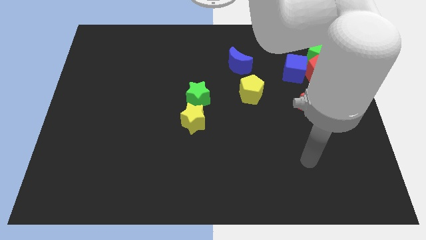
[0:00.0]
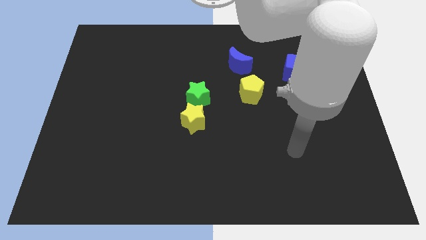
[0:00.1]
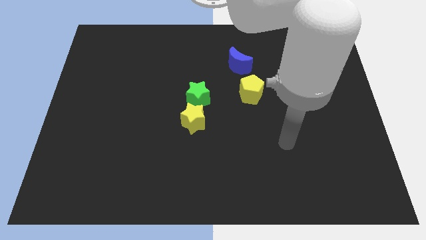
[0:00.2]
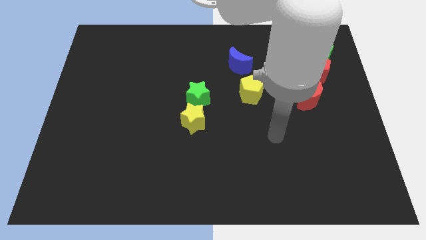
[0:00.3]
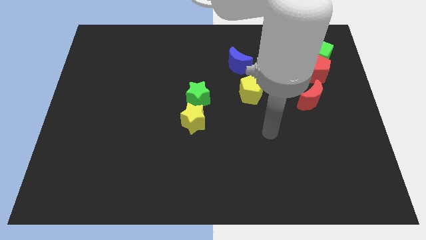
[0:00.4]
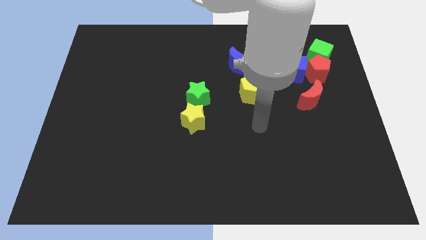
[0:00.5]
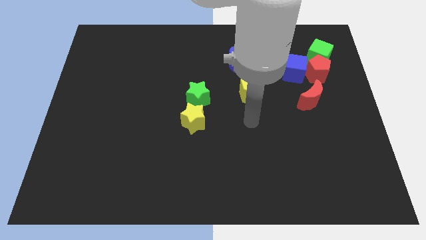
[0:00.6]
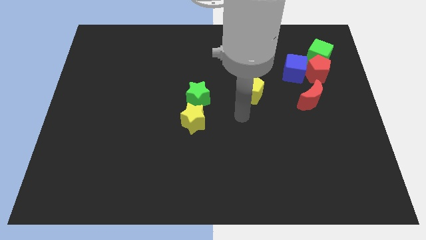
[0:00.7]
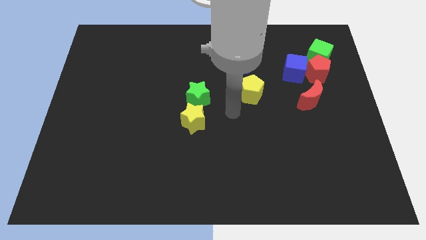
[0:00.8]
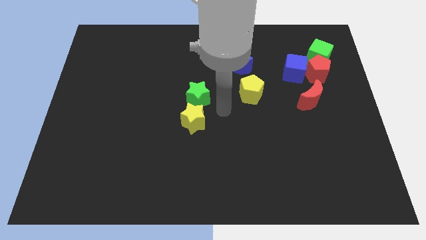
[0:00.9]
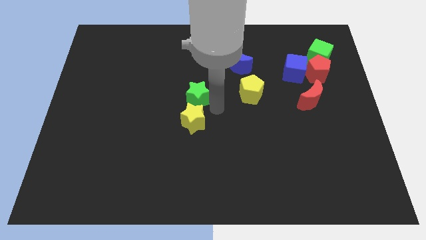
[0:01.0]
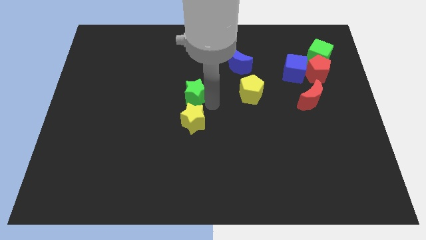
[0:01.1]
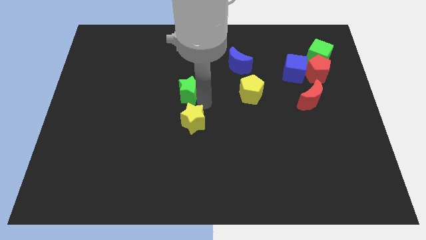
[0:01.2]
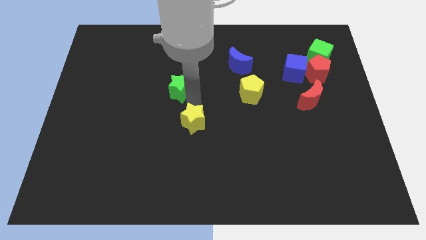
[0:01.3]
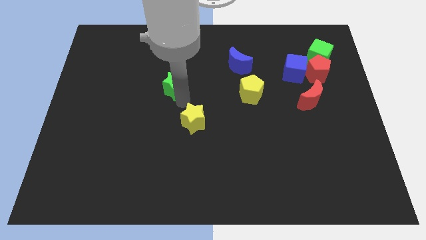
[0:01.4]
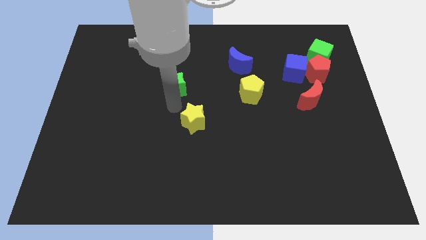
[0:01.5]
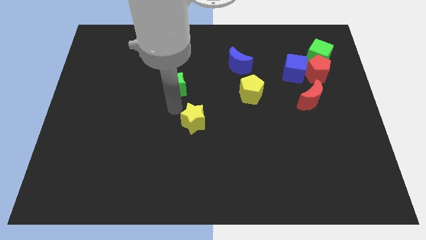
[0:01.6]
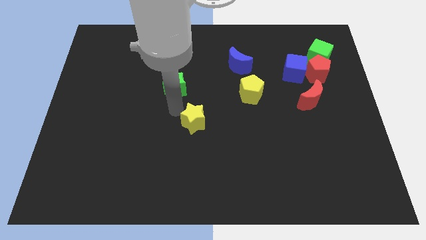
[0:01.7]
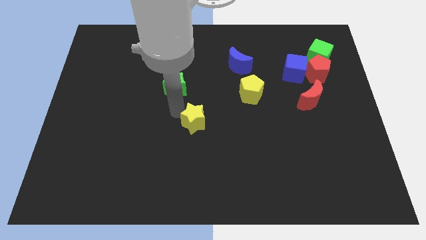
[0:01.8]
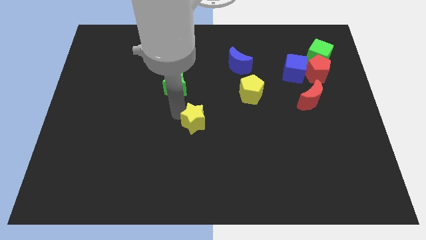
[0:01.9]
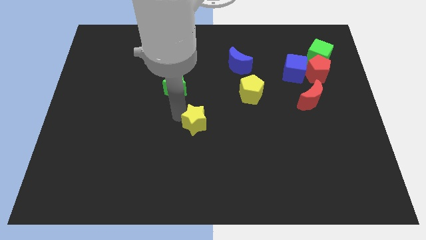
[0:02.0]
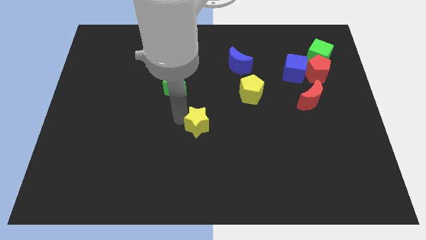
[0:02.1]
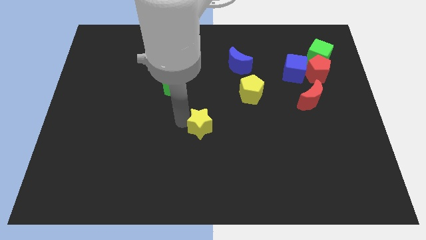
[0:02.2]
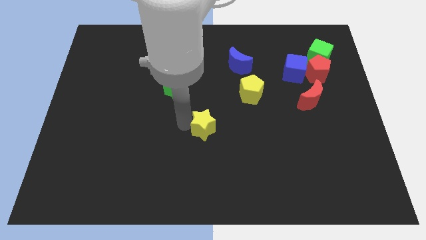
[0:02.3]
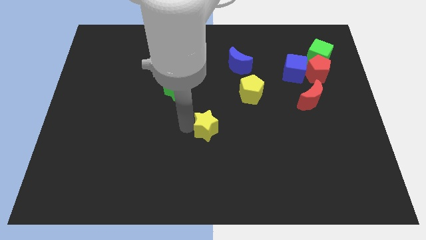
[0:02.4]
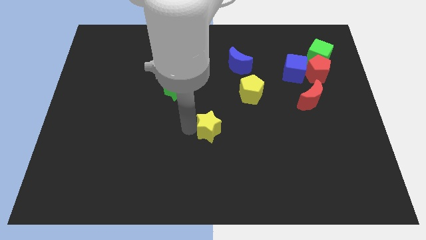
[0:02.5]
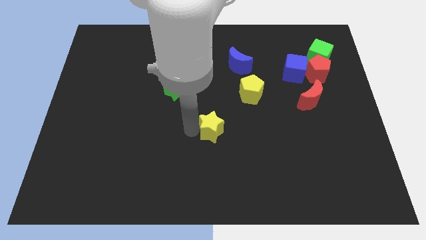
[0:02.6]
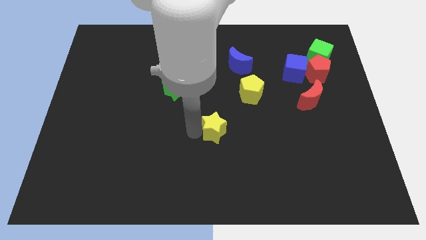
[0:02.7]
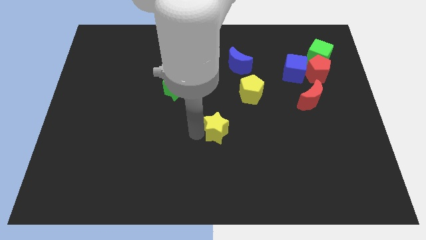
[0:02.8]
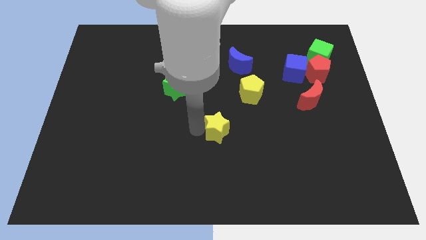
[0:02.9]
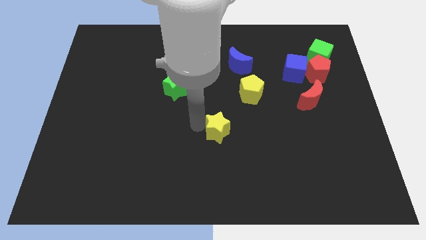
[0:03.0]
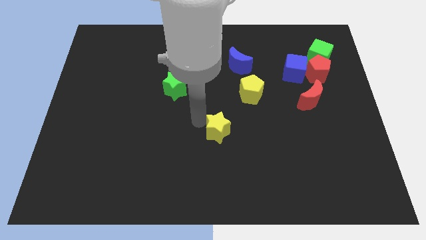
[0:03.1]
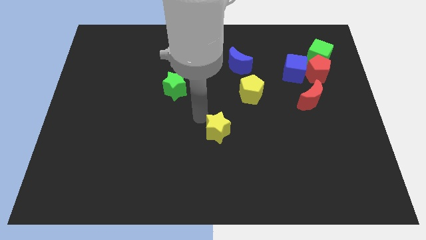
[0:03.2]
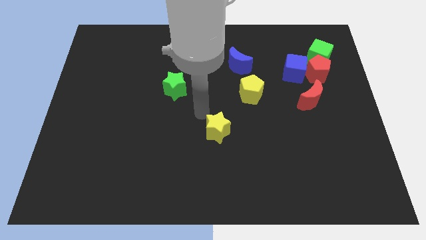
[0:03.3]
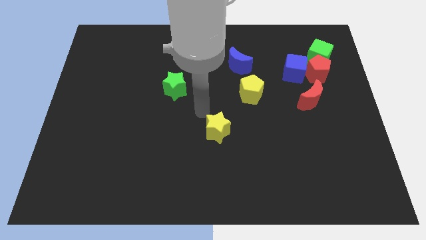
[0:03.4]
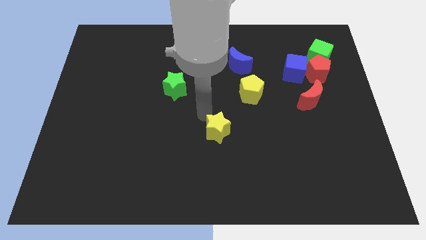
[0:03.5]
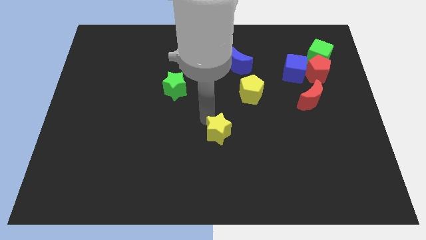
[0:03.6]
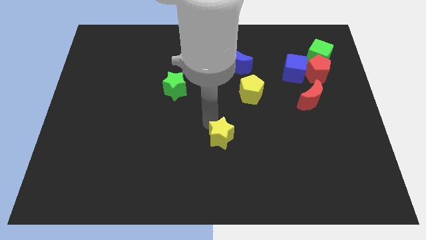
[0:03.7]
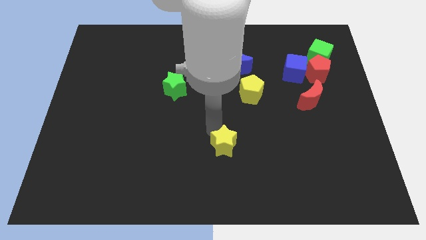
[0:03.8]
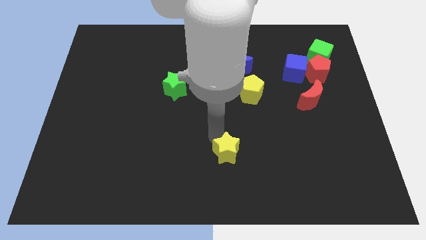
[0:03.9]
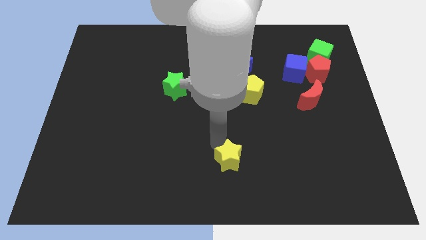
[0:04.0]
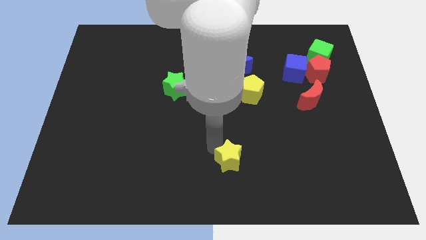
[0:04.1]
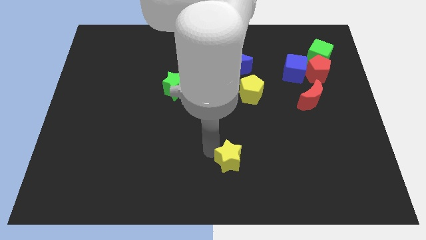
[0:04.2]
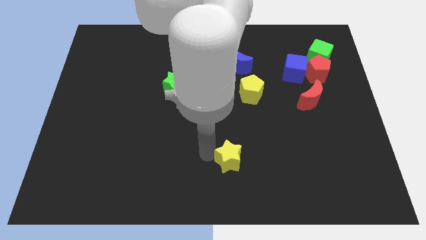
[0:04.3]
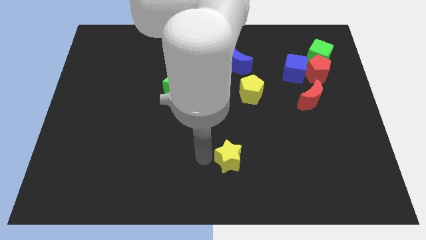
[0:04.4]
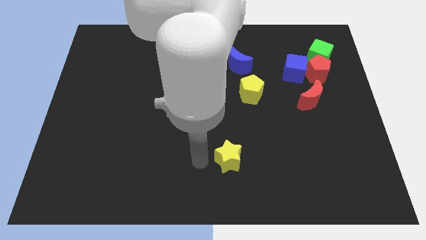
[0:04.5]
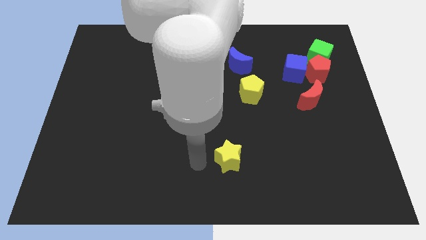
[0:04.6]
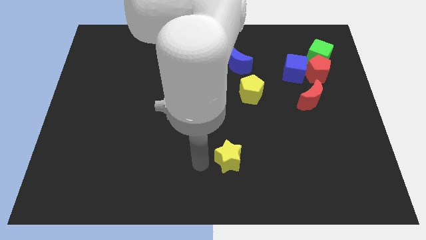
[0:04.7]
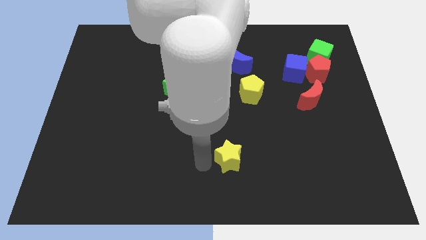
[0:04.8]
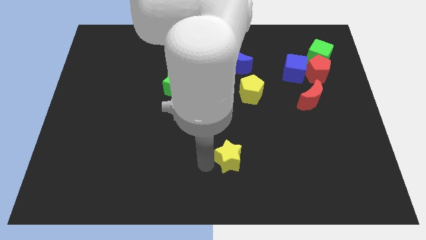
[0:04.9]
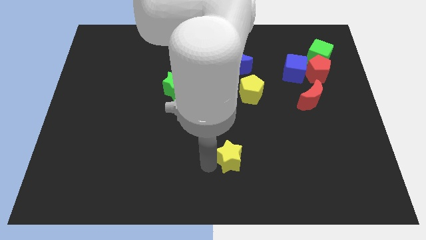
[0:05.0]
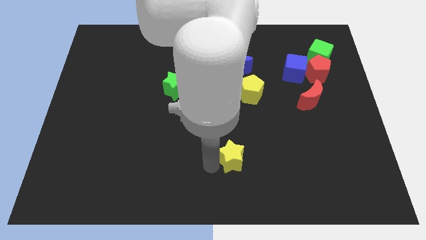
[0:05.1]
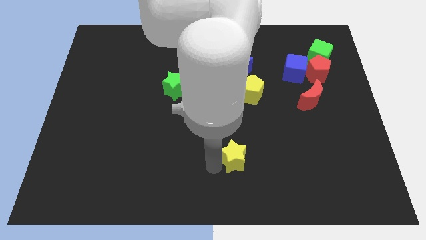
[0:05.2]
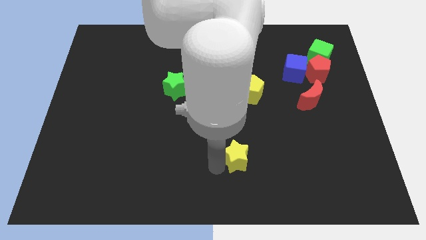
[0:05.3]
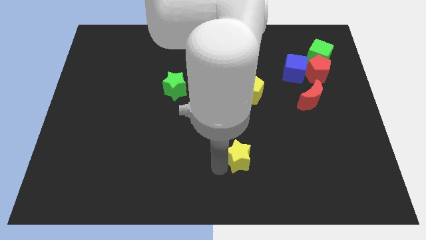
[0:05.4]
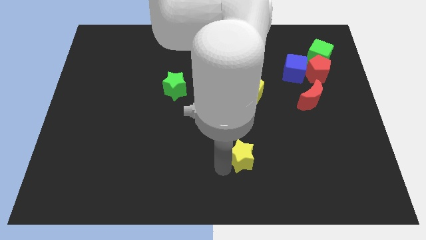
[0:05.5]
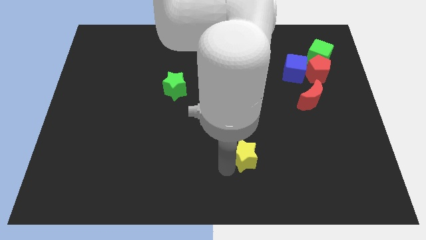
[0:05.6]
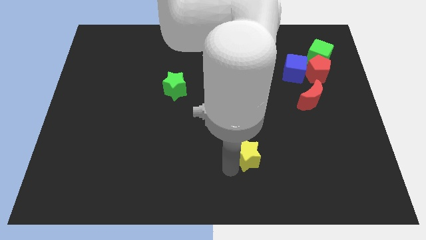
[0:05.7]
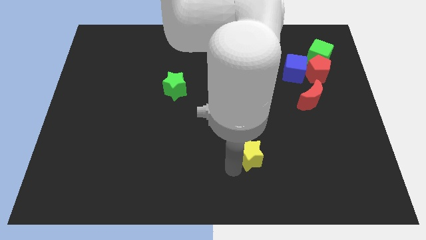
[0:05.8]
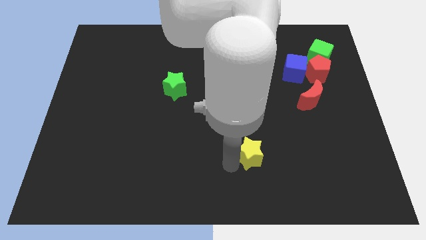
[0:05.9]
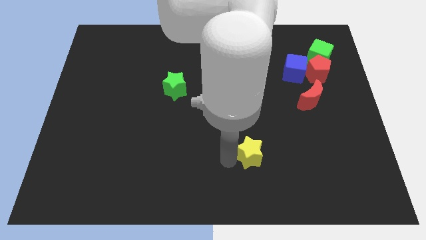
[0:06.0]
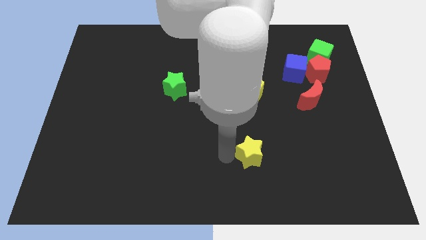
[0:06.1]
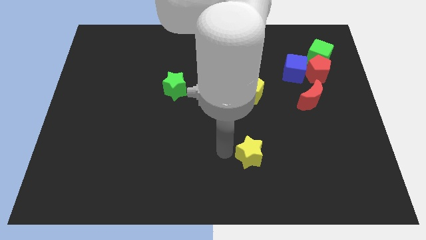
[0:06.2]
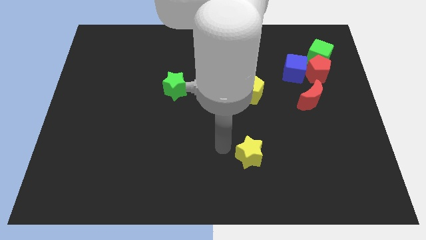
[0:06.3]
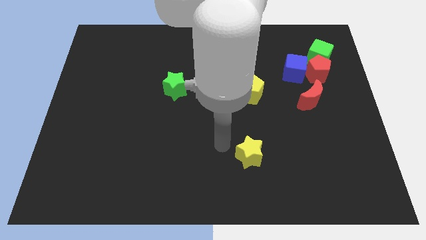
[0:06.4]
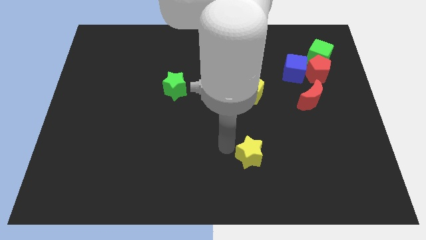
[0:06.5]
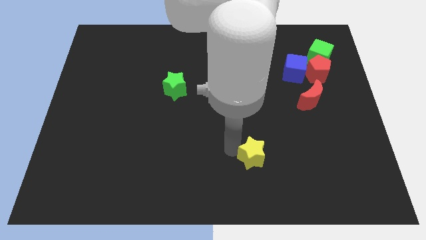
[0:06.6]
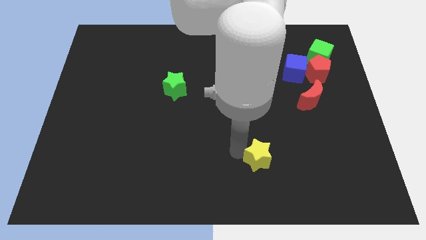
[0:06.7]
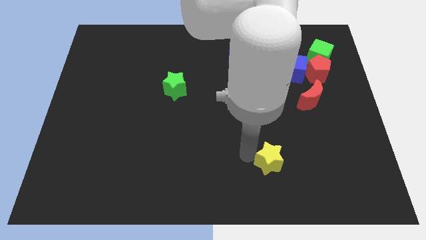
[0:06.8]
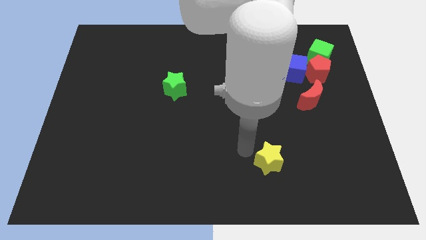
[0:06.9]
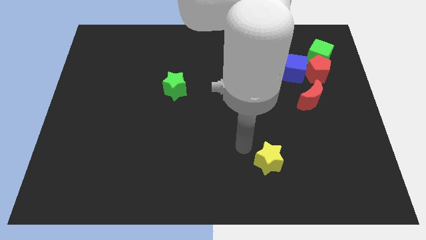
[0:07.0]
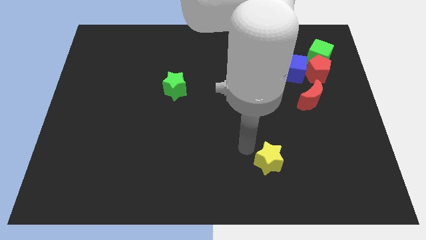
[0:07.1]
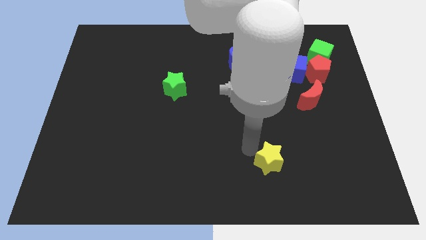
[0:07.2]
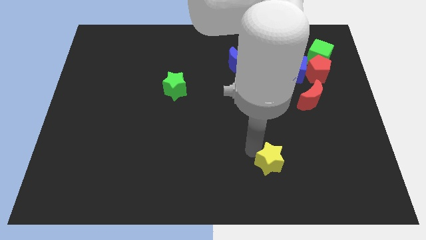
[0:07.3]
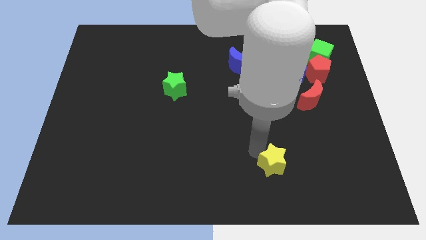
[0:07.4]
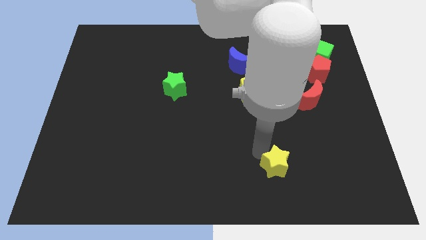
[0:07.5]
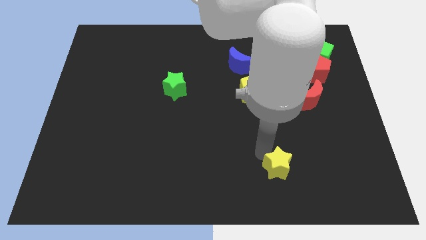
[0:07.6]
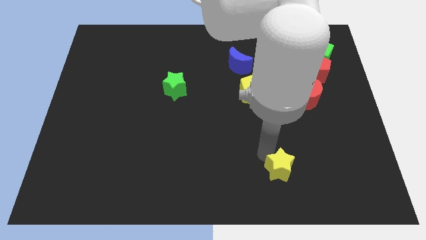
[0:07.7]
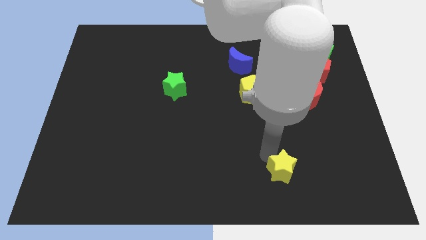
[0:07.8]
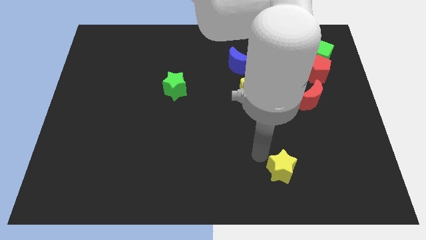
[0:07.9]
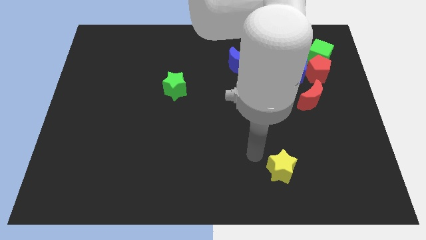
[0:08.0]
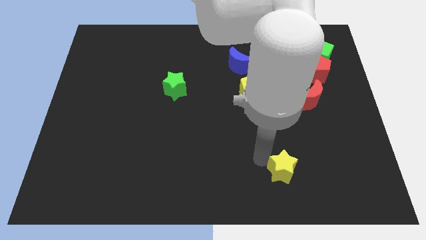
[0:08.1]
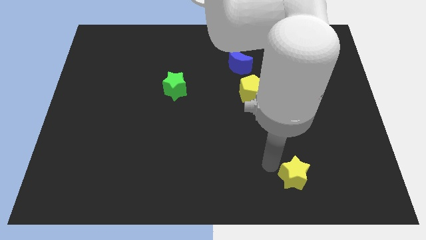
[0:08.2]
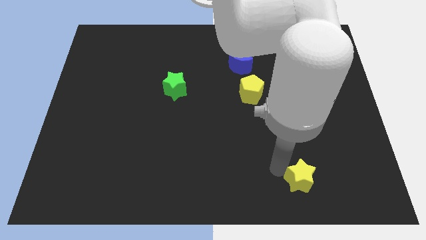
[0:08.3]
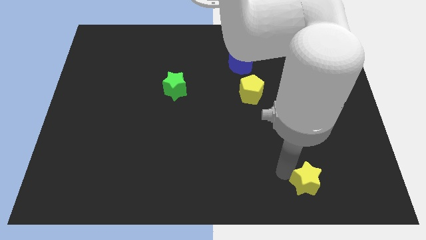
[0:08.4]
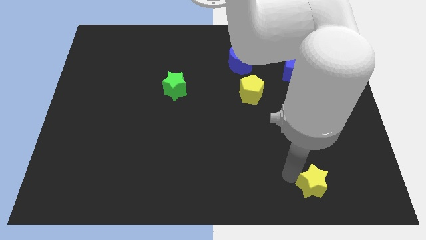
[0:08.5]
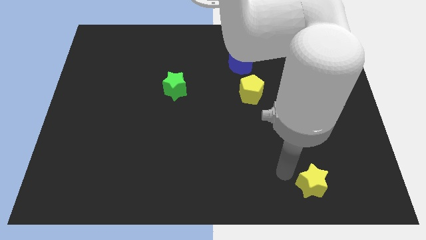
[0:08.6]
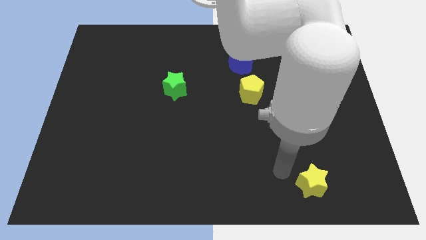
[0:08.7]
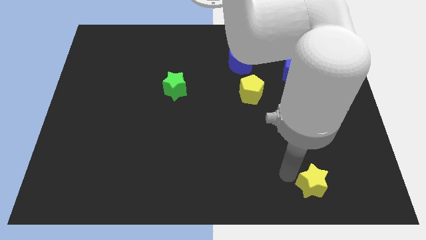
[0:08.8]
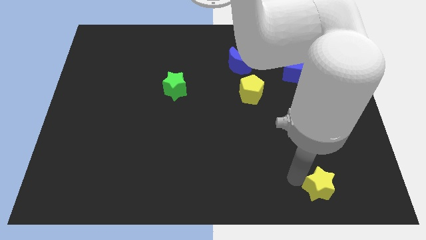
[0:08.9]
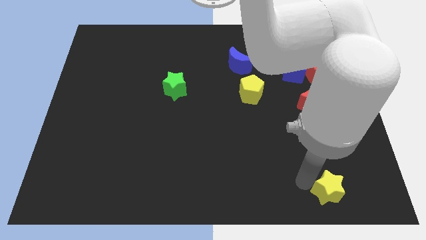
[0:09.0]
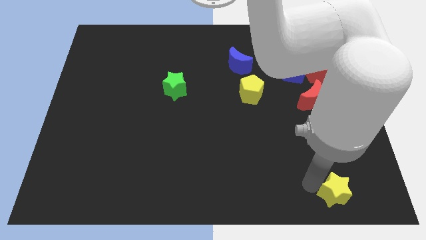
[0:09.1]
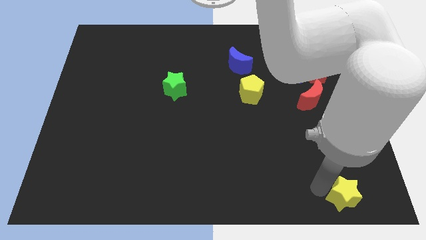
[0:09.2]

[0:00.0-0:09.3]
move the yellow star to the bottom right of the board
